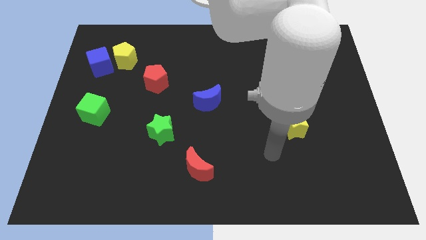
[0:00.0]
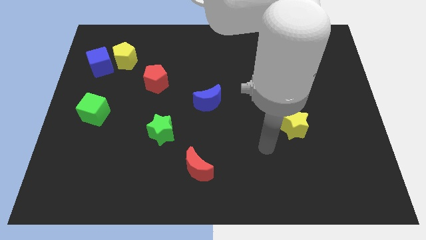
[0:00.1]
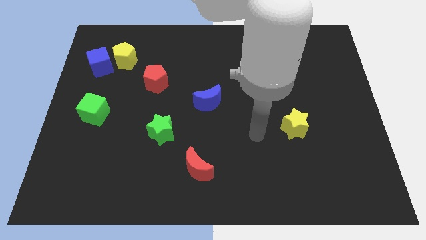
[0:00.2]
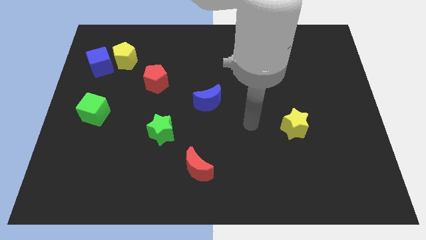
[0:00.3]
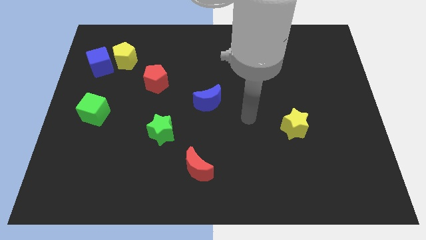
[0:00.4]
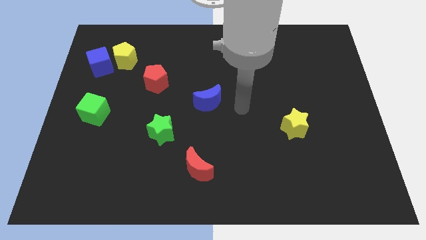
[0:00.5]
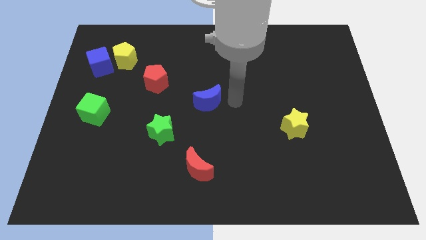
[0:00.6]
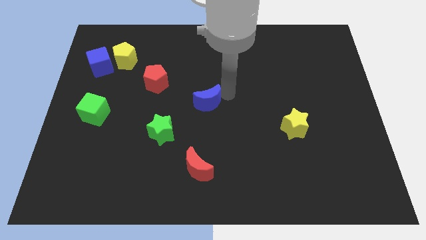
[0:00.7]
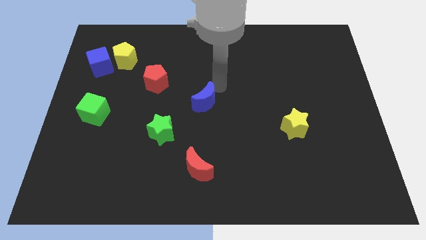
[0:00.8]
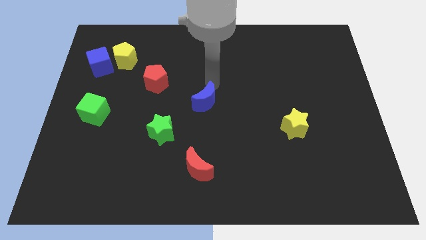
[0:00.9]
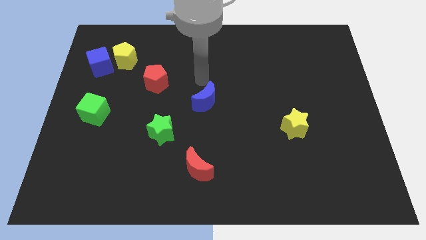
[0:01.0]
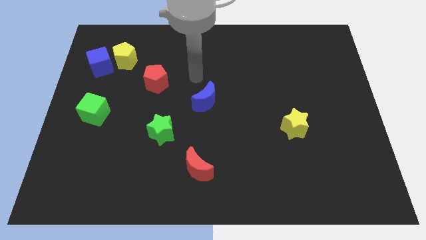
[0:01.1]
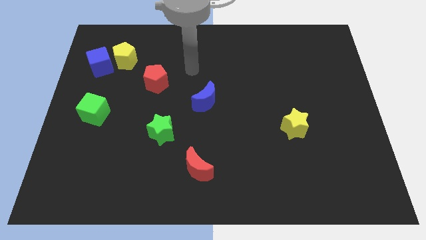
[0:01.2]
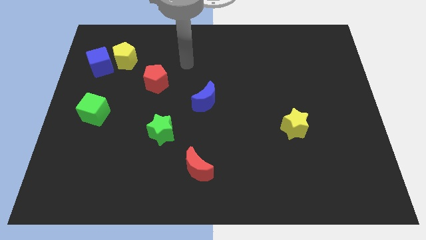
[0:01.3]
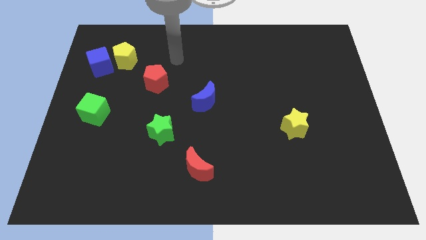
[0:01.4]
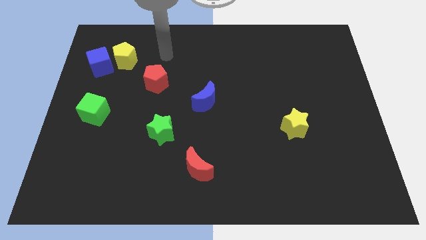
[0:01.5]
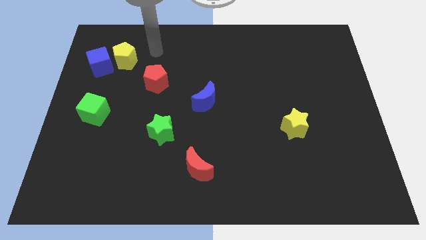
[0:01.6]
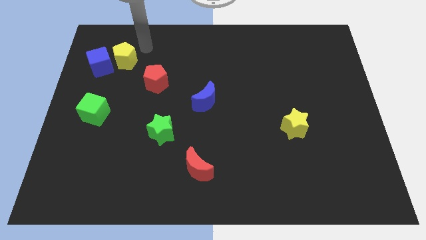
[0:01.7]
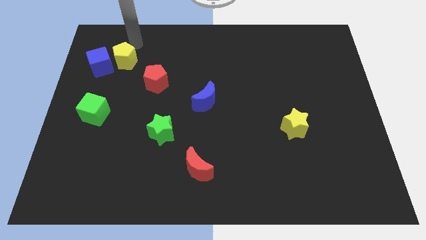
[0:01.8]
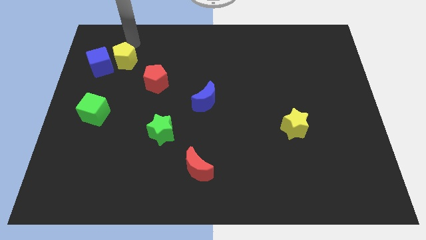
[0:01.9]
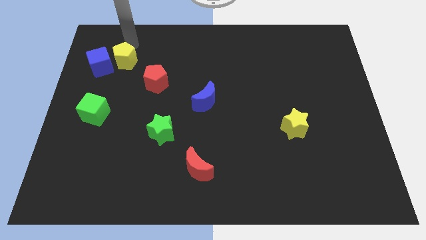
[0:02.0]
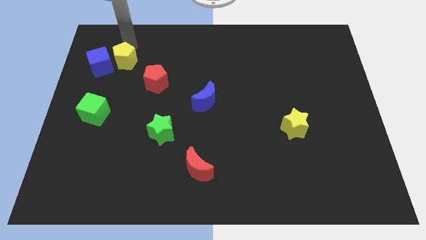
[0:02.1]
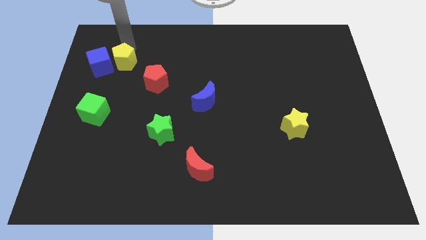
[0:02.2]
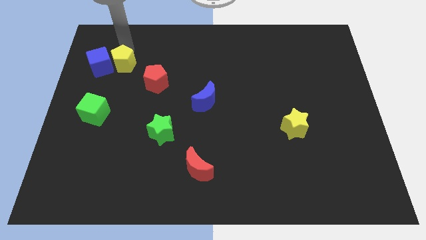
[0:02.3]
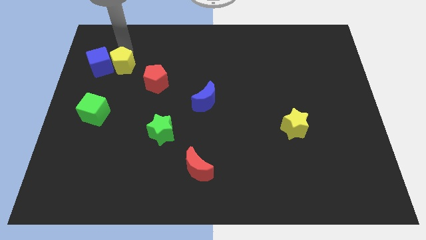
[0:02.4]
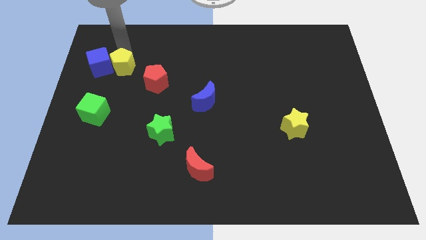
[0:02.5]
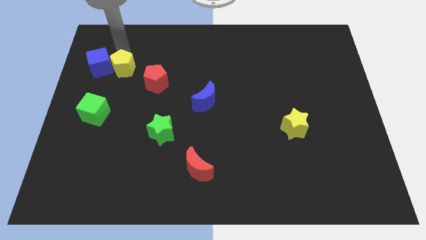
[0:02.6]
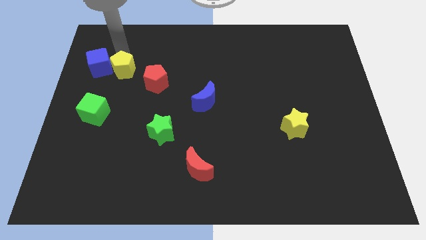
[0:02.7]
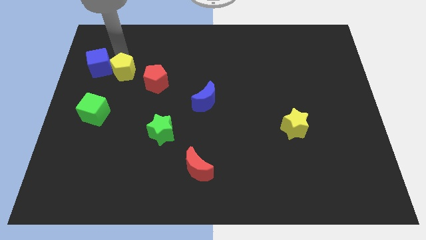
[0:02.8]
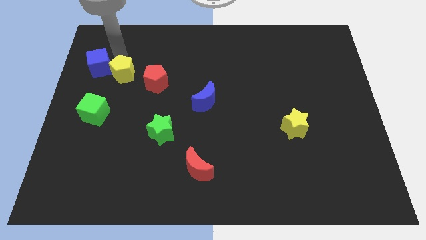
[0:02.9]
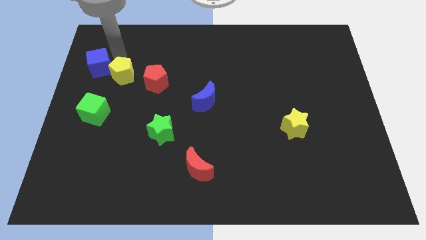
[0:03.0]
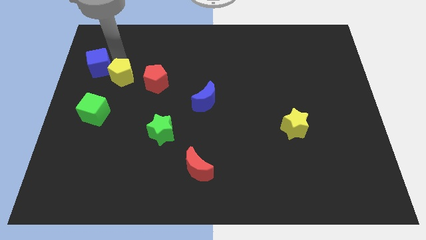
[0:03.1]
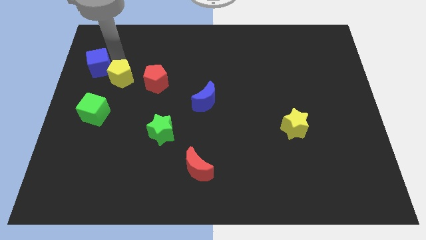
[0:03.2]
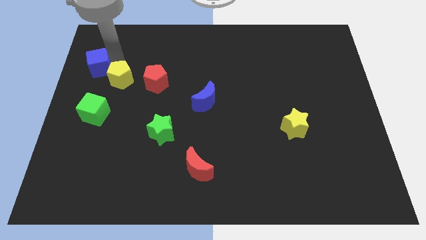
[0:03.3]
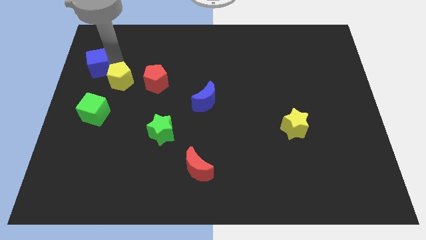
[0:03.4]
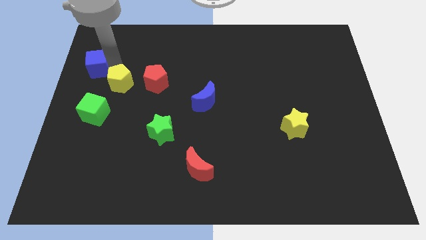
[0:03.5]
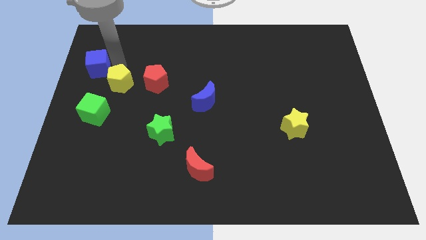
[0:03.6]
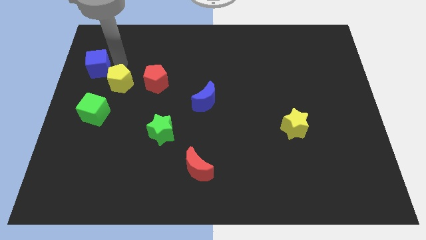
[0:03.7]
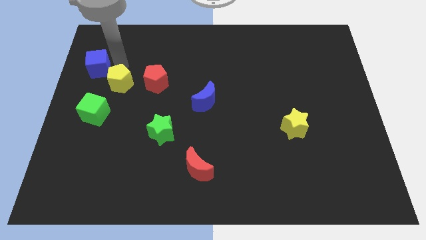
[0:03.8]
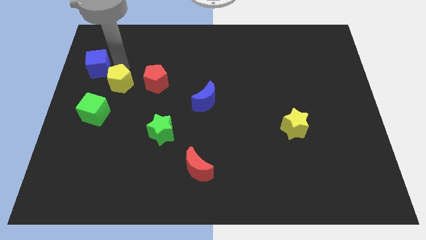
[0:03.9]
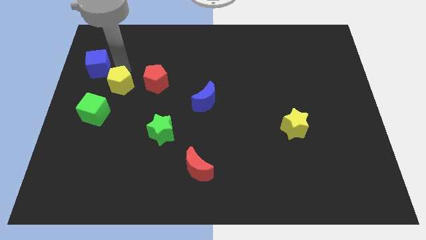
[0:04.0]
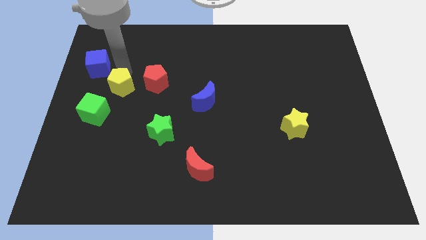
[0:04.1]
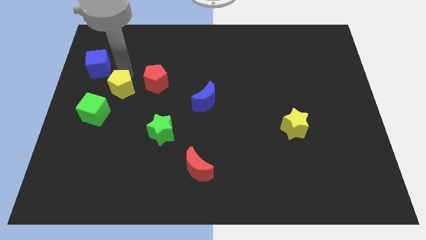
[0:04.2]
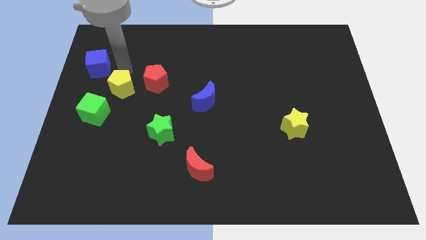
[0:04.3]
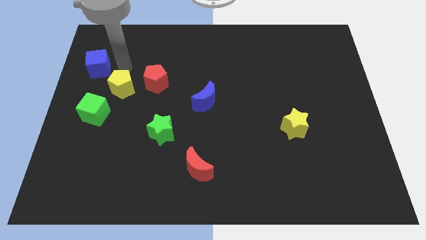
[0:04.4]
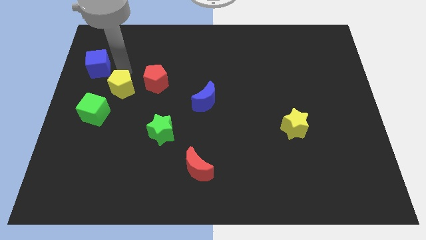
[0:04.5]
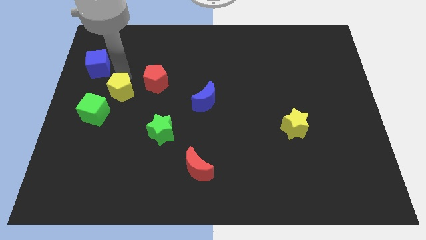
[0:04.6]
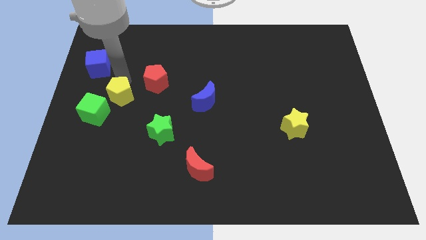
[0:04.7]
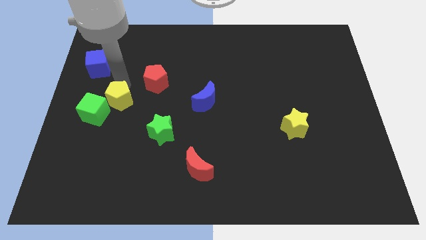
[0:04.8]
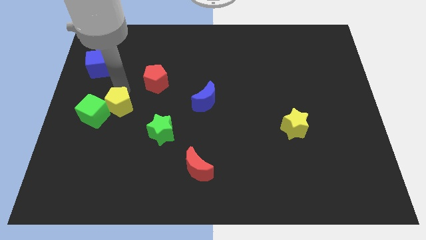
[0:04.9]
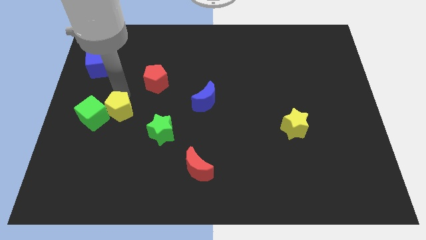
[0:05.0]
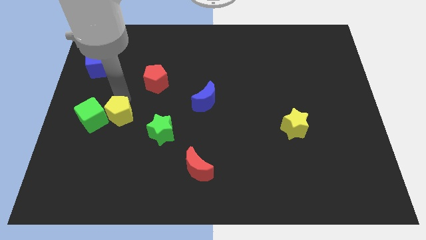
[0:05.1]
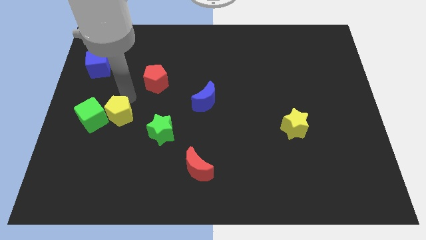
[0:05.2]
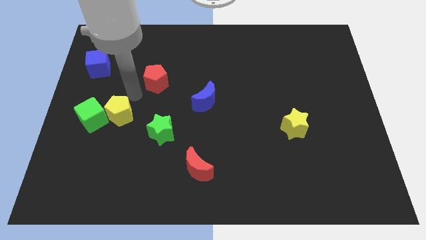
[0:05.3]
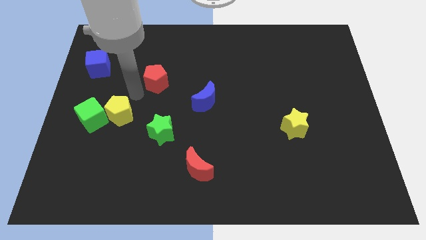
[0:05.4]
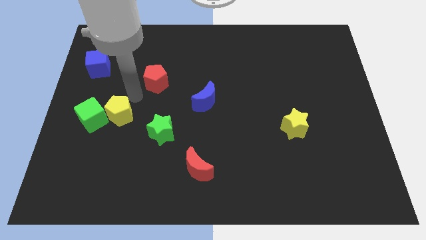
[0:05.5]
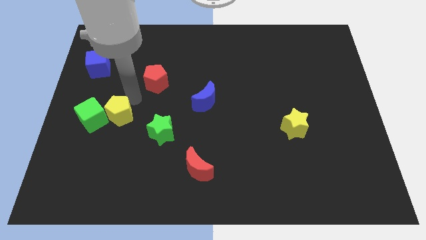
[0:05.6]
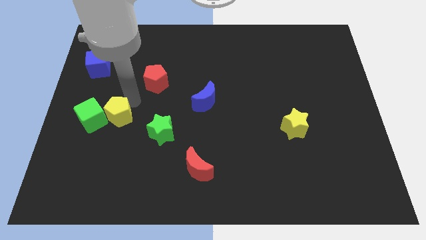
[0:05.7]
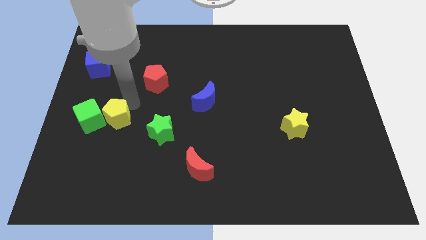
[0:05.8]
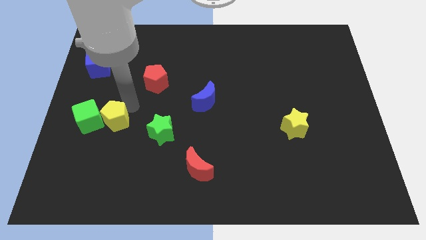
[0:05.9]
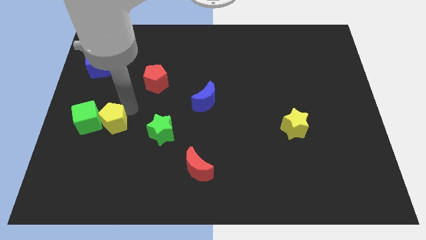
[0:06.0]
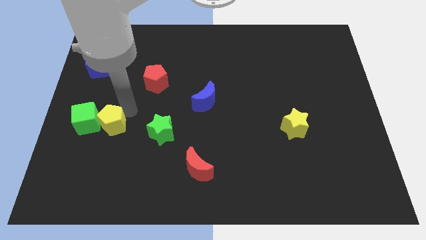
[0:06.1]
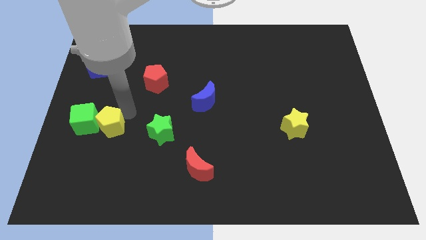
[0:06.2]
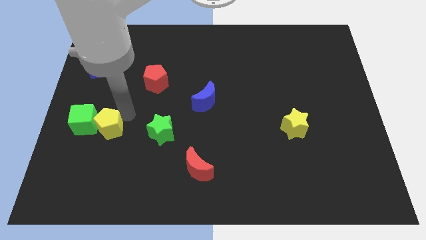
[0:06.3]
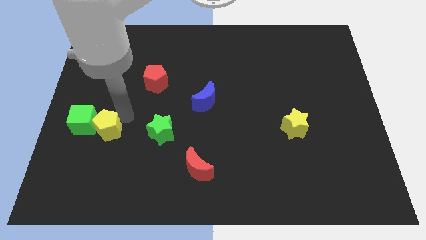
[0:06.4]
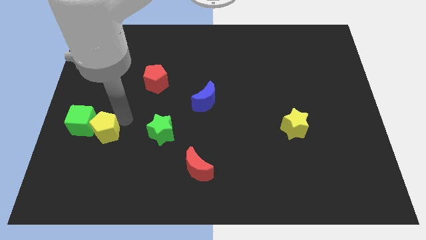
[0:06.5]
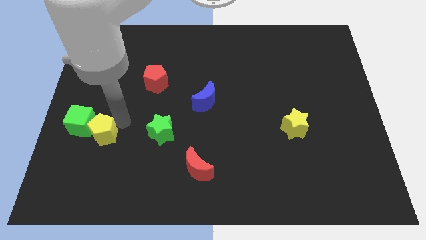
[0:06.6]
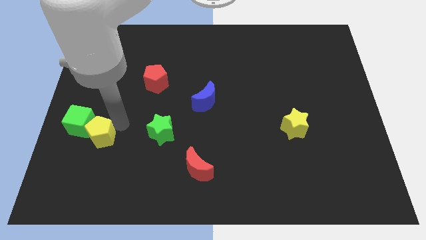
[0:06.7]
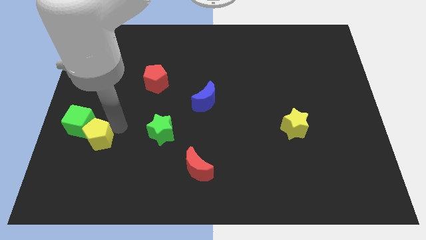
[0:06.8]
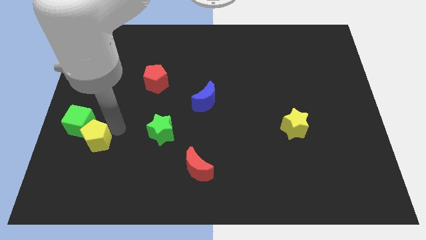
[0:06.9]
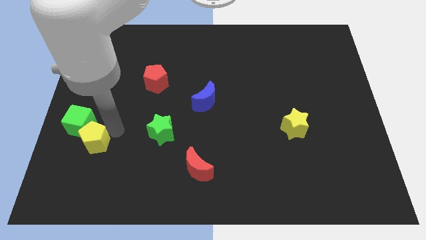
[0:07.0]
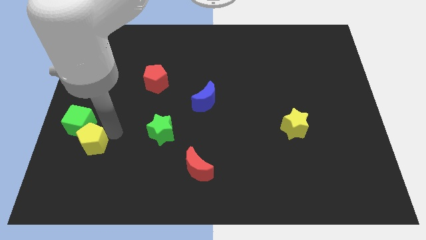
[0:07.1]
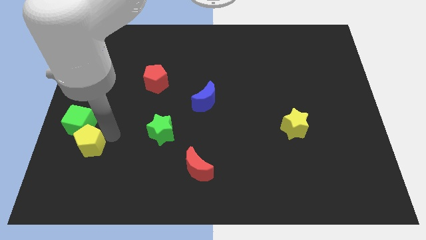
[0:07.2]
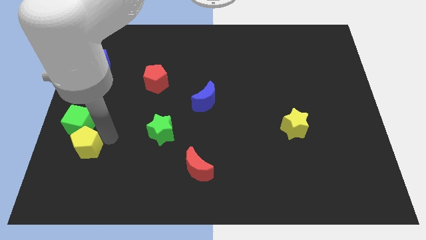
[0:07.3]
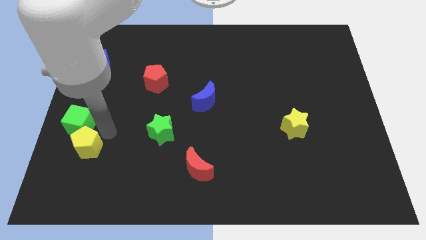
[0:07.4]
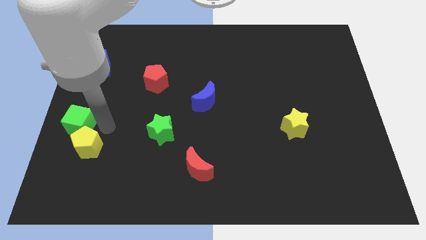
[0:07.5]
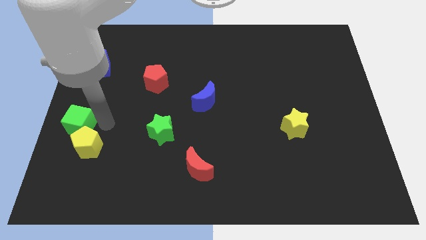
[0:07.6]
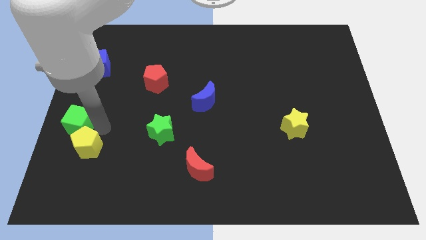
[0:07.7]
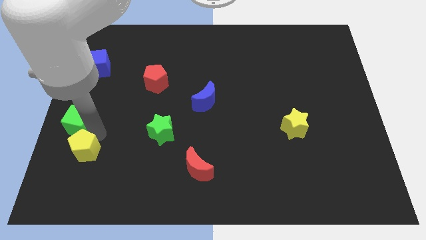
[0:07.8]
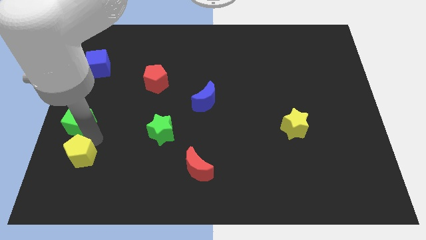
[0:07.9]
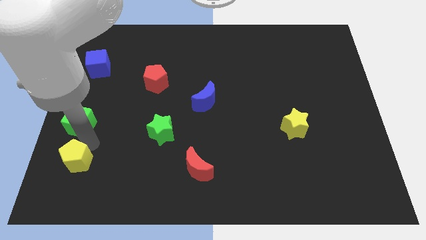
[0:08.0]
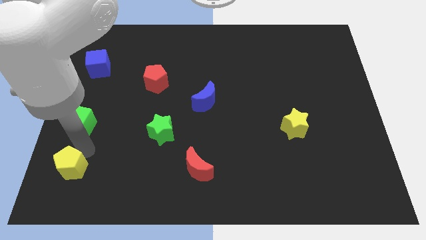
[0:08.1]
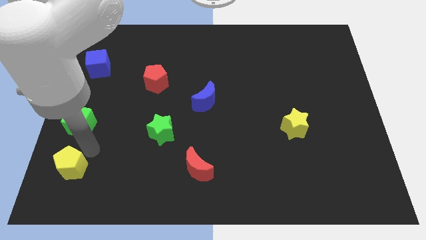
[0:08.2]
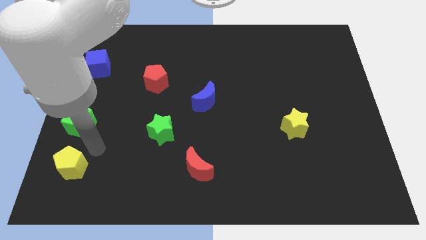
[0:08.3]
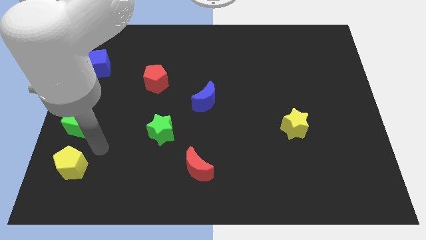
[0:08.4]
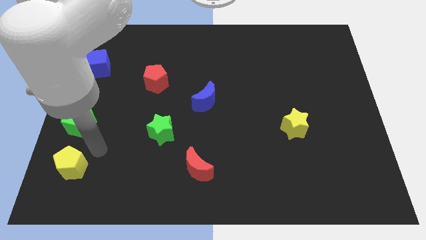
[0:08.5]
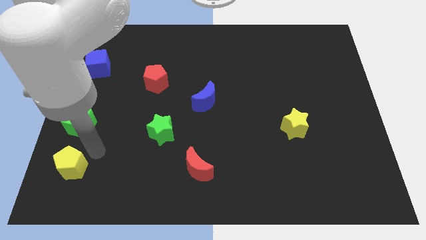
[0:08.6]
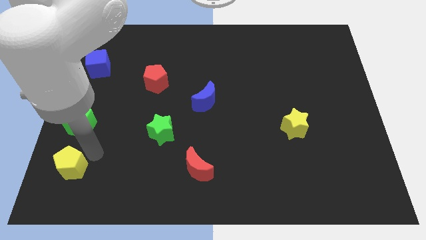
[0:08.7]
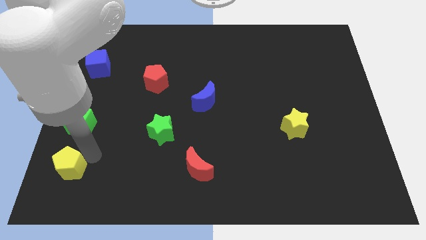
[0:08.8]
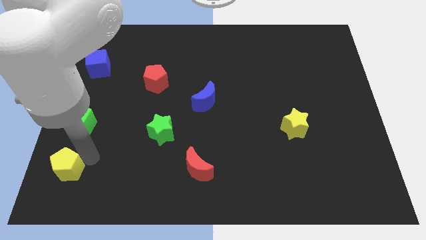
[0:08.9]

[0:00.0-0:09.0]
slide the yellow pentagon to the lower left corner
